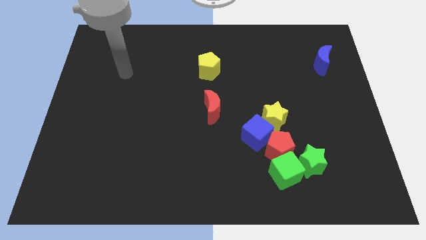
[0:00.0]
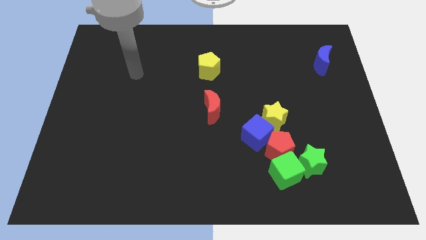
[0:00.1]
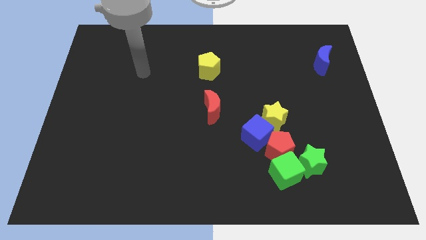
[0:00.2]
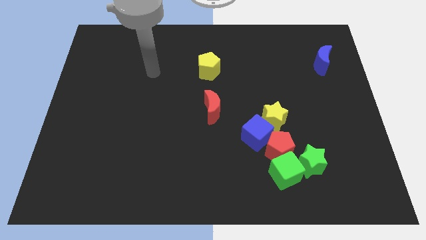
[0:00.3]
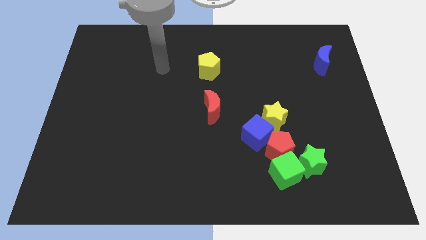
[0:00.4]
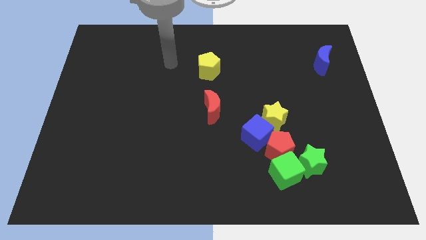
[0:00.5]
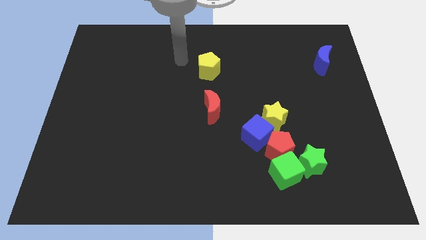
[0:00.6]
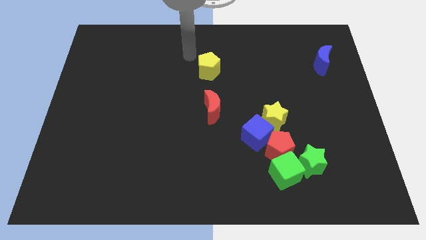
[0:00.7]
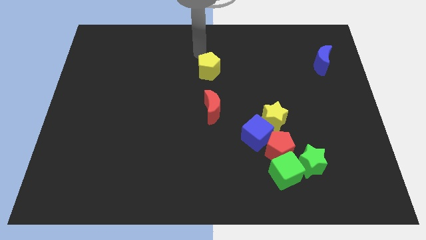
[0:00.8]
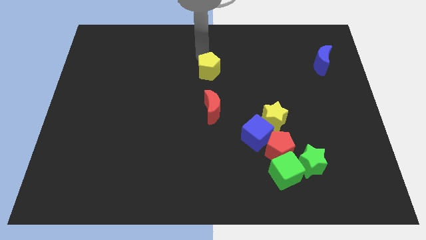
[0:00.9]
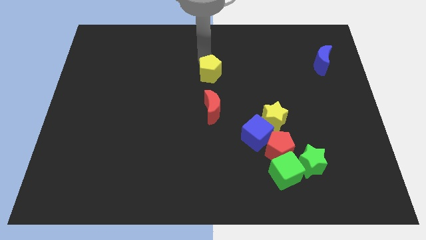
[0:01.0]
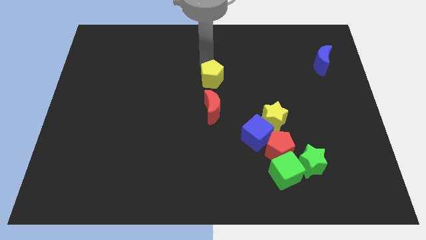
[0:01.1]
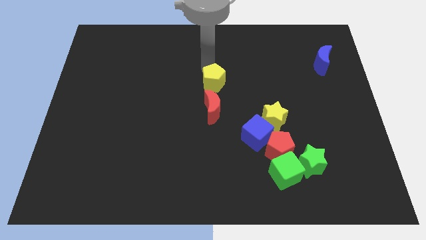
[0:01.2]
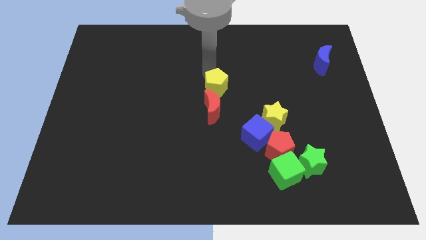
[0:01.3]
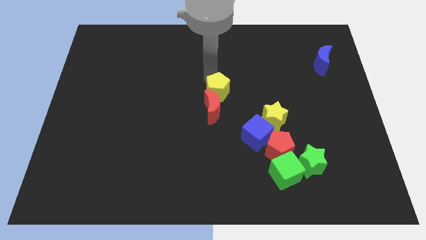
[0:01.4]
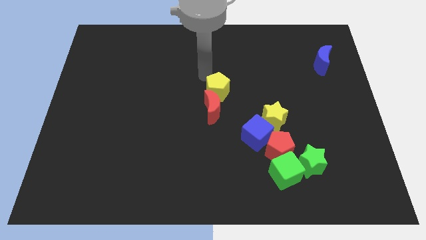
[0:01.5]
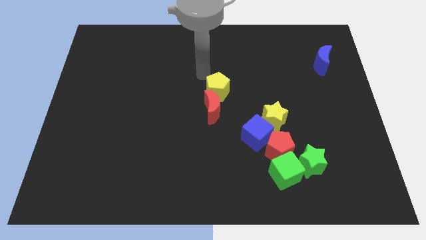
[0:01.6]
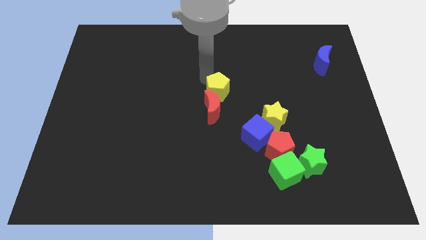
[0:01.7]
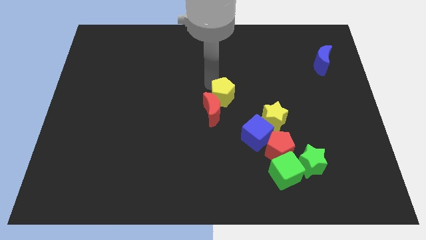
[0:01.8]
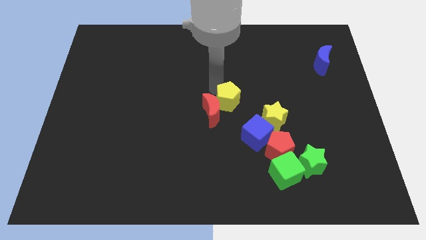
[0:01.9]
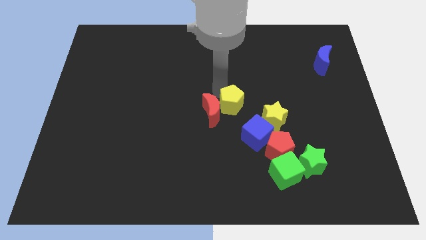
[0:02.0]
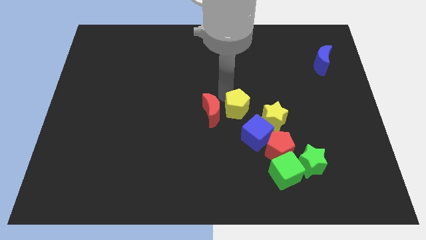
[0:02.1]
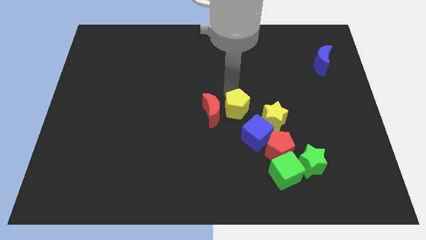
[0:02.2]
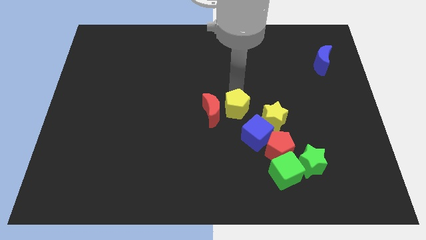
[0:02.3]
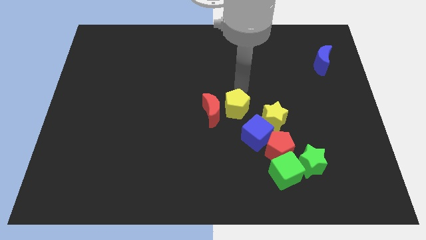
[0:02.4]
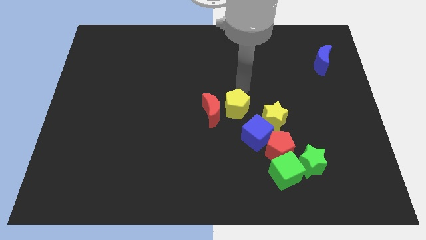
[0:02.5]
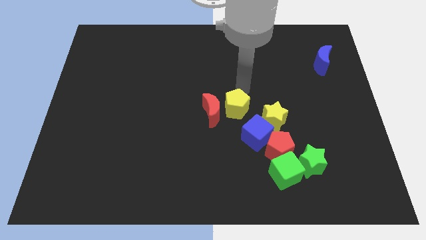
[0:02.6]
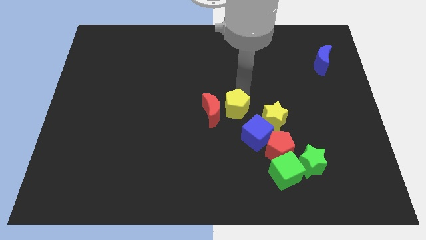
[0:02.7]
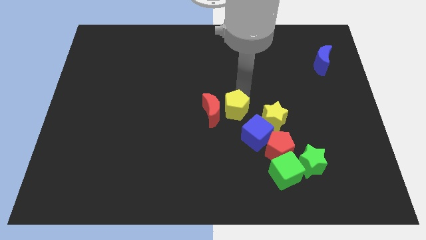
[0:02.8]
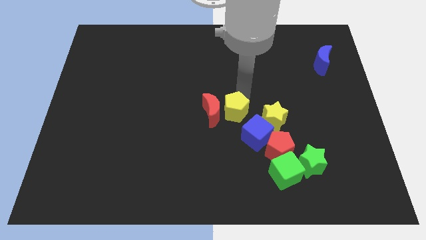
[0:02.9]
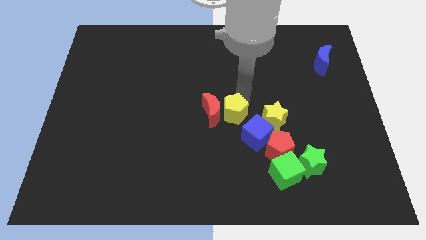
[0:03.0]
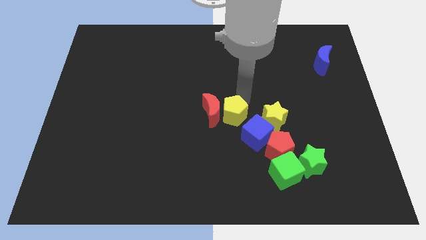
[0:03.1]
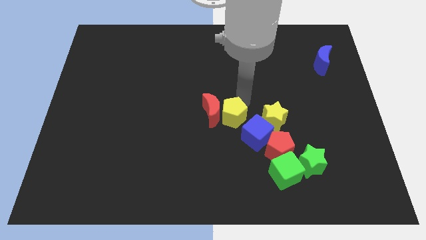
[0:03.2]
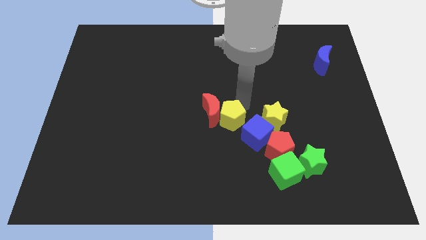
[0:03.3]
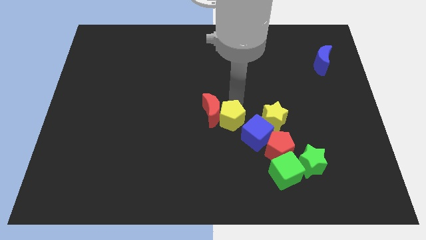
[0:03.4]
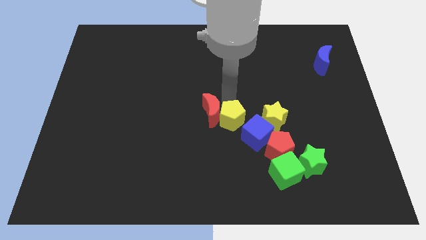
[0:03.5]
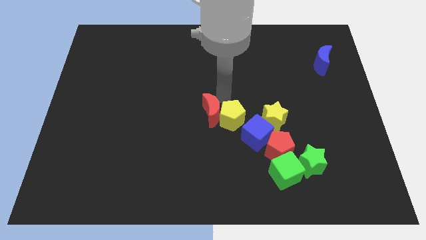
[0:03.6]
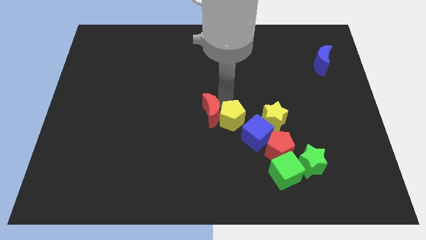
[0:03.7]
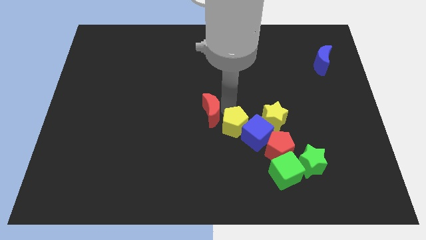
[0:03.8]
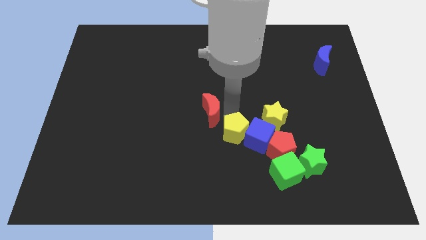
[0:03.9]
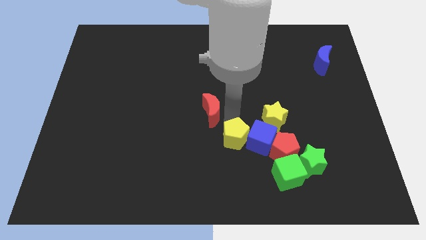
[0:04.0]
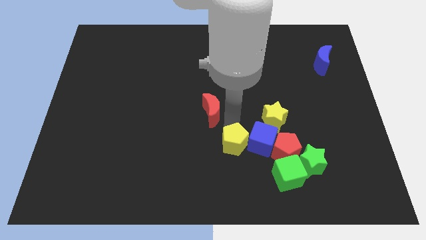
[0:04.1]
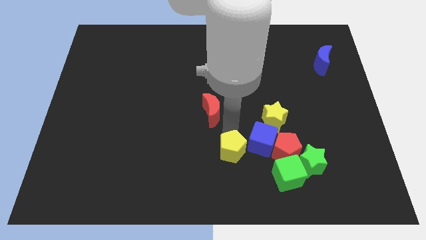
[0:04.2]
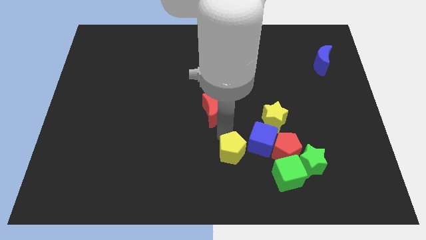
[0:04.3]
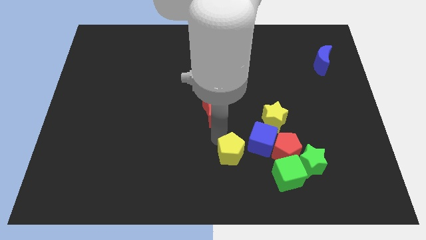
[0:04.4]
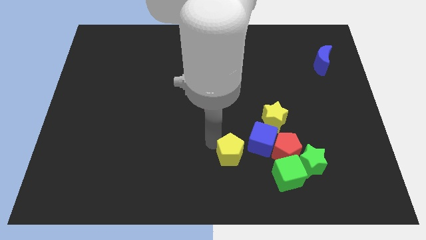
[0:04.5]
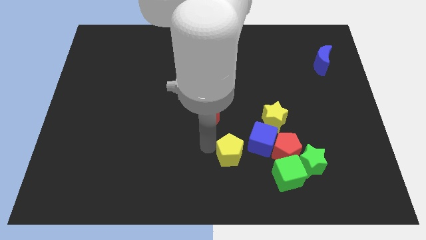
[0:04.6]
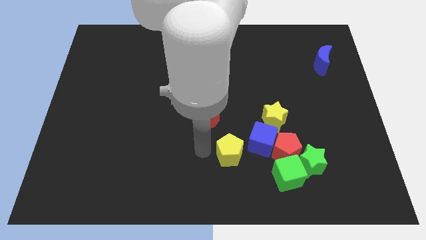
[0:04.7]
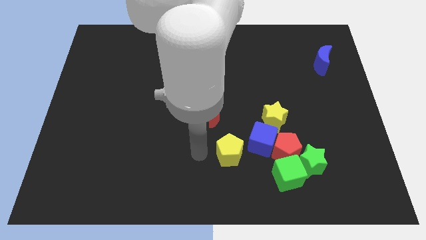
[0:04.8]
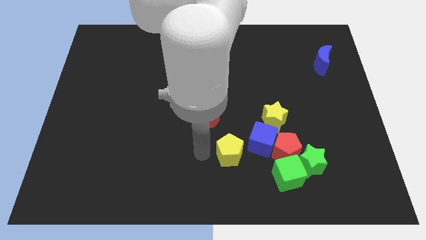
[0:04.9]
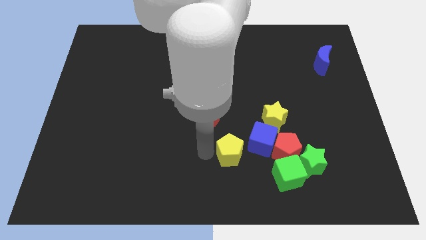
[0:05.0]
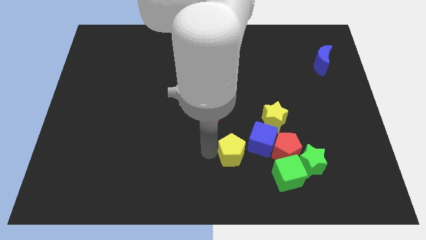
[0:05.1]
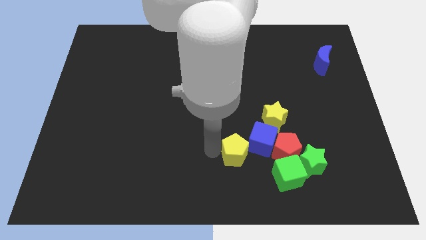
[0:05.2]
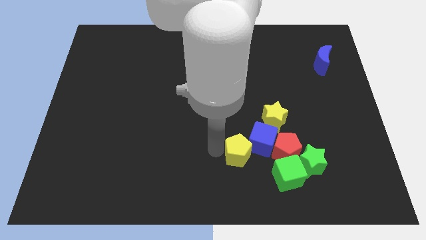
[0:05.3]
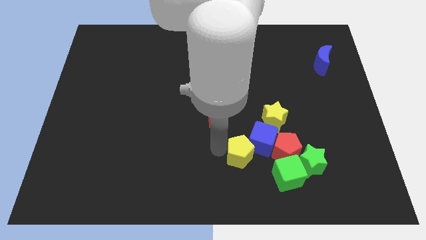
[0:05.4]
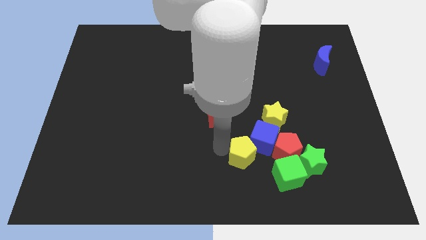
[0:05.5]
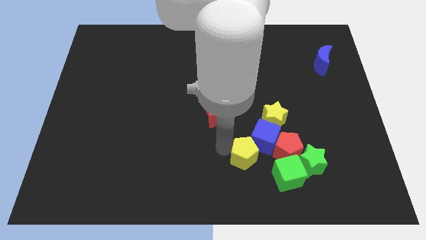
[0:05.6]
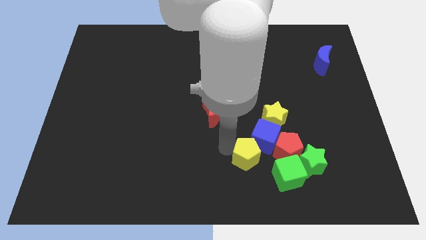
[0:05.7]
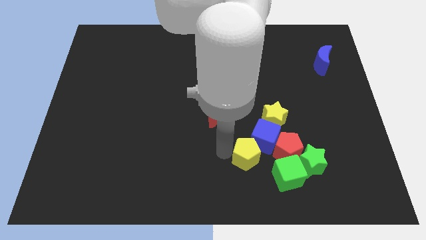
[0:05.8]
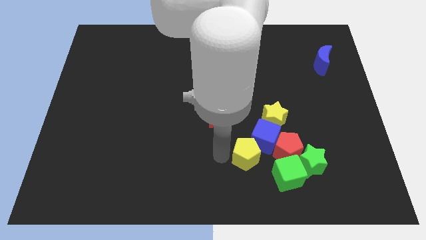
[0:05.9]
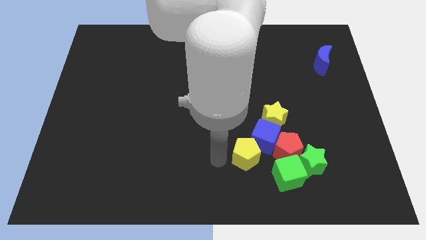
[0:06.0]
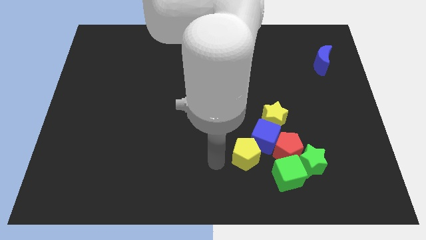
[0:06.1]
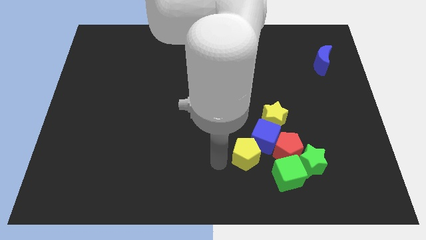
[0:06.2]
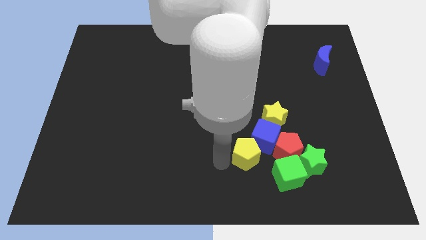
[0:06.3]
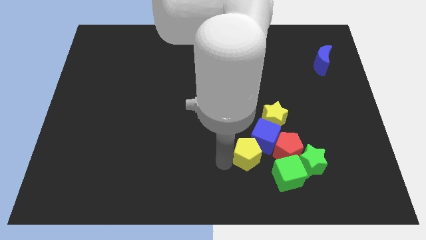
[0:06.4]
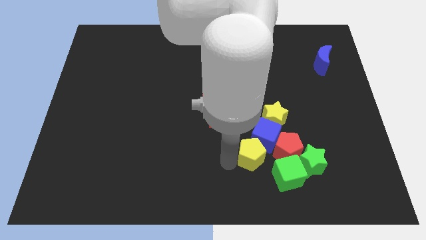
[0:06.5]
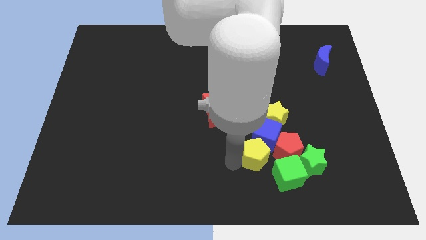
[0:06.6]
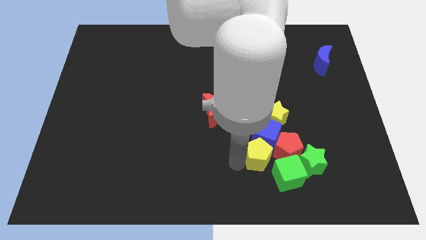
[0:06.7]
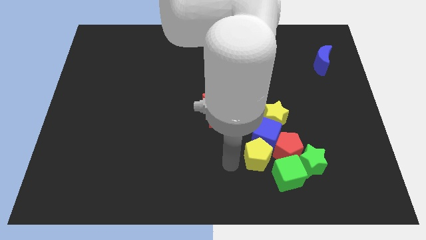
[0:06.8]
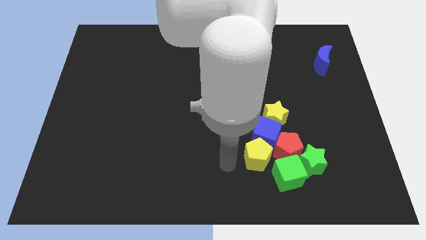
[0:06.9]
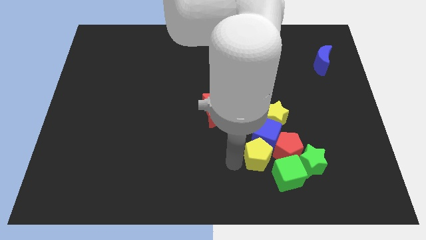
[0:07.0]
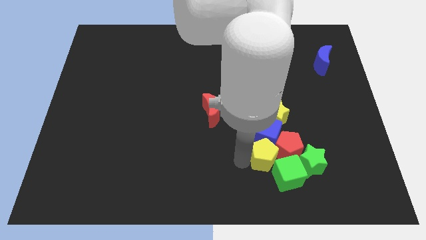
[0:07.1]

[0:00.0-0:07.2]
push the yellow pentagon close to the red pentagon
